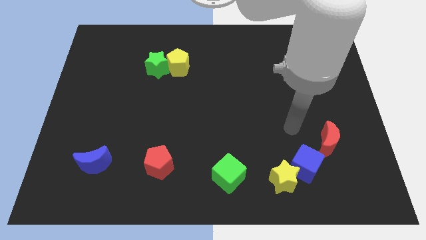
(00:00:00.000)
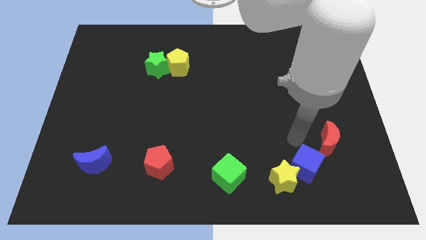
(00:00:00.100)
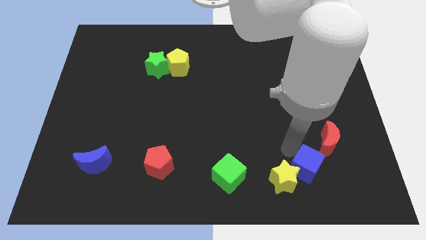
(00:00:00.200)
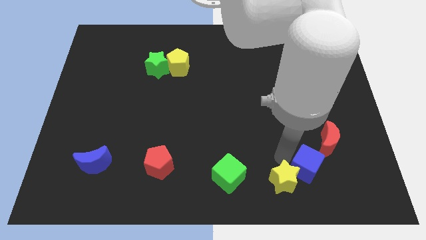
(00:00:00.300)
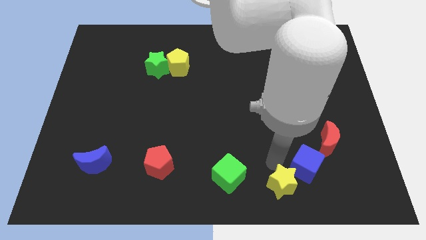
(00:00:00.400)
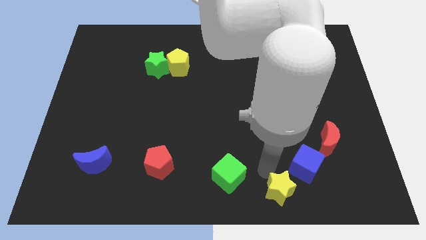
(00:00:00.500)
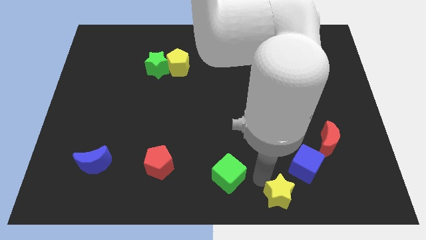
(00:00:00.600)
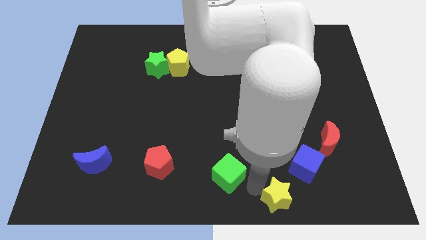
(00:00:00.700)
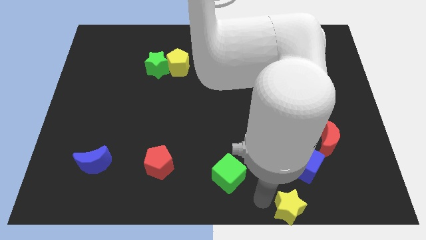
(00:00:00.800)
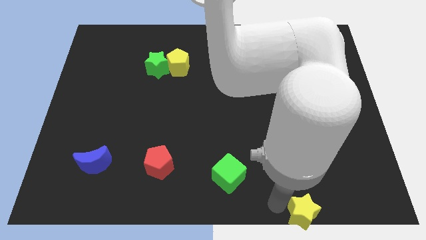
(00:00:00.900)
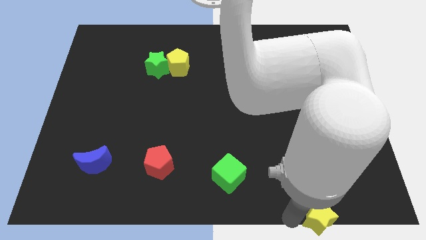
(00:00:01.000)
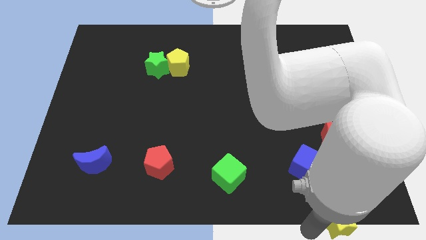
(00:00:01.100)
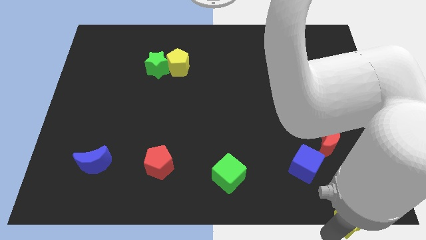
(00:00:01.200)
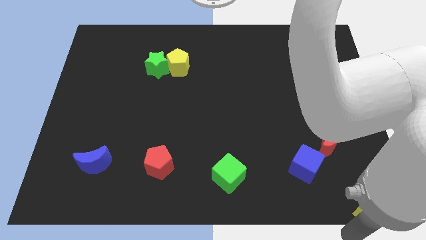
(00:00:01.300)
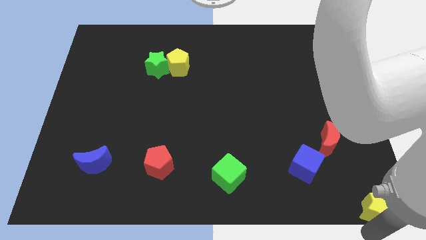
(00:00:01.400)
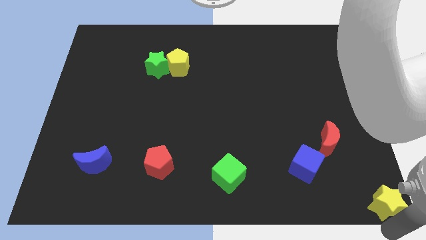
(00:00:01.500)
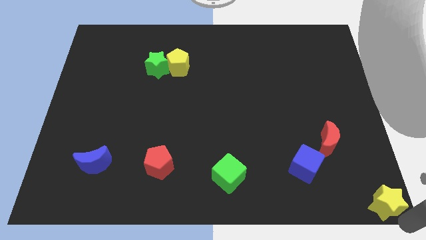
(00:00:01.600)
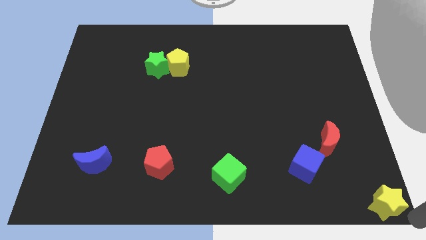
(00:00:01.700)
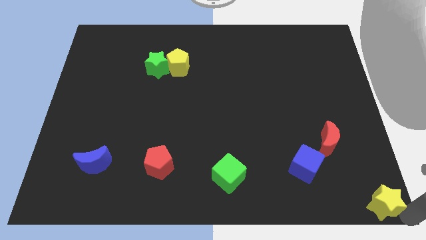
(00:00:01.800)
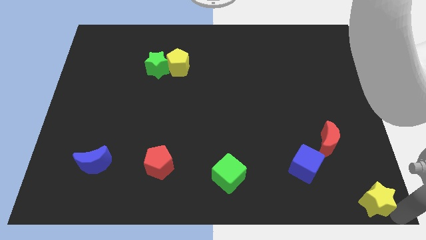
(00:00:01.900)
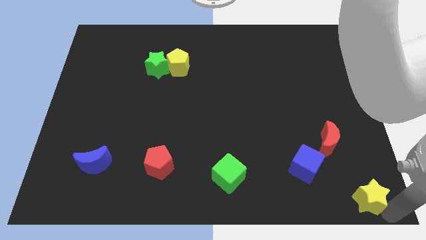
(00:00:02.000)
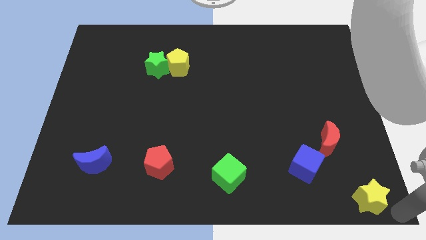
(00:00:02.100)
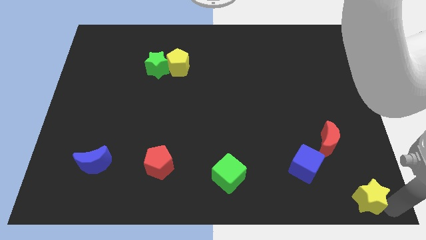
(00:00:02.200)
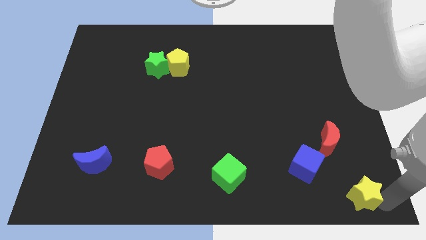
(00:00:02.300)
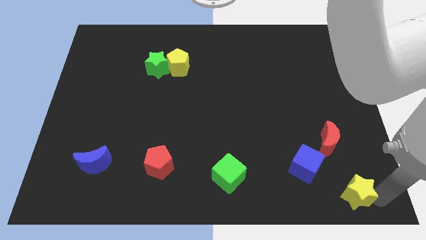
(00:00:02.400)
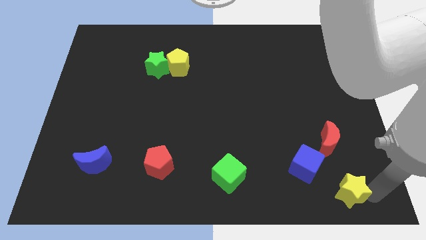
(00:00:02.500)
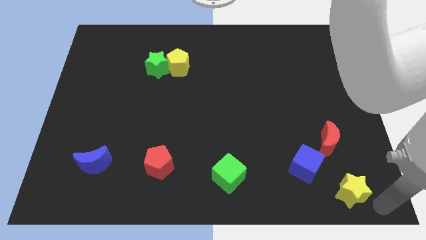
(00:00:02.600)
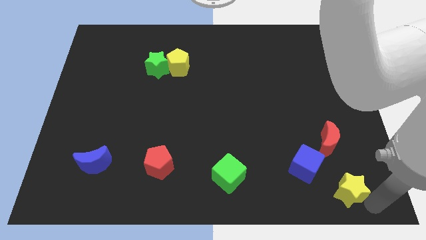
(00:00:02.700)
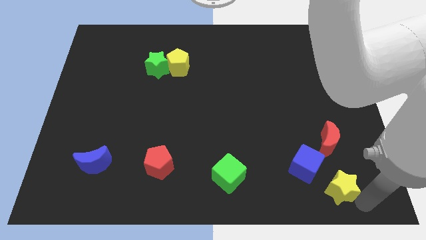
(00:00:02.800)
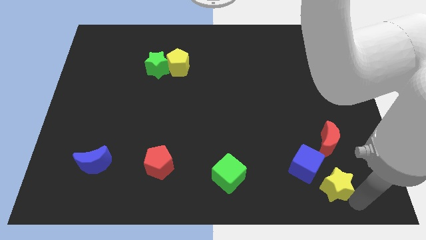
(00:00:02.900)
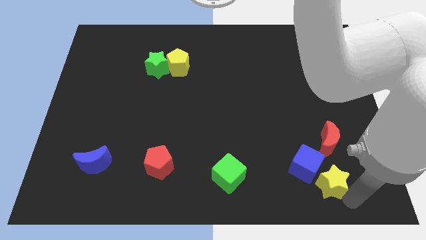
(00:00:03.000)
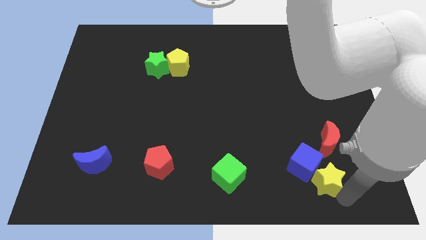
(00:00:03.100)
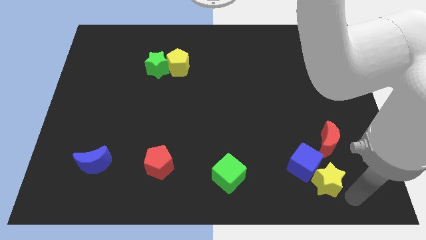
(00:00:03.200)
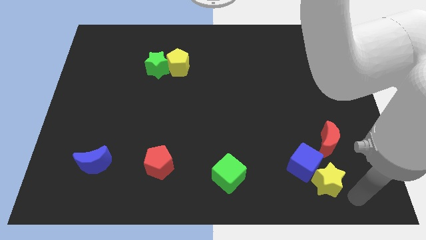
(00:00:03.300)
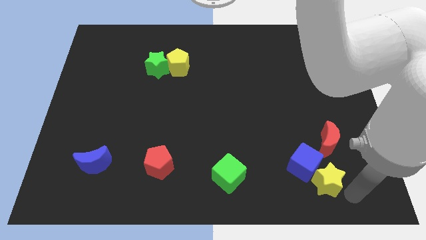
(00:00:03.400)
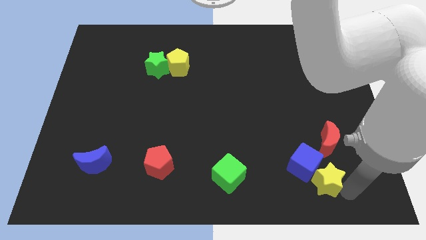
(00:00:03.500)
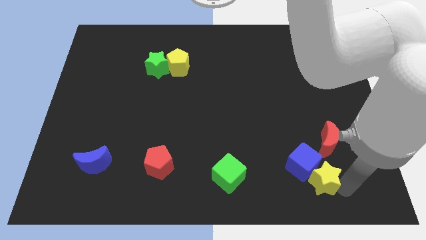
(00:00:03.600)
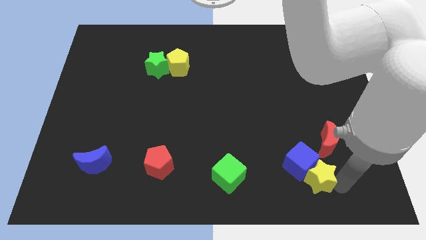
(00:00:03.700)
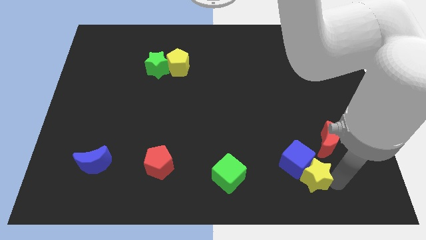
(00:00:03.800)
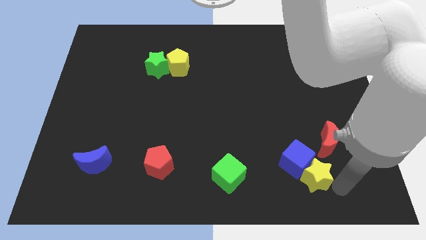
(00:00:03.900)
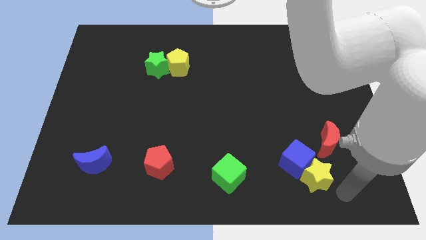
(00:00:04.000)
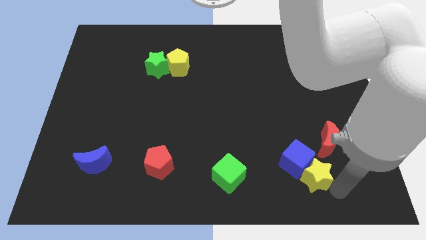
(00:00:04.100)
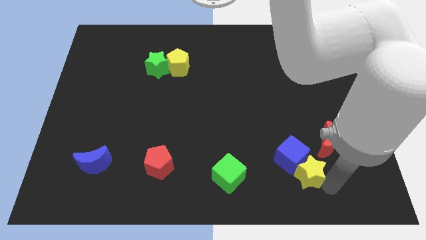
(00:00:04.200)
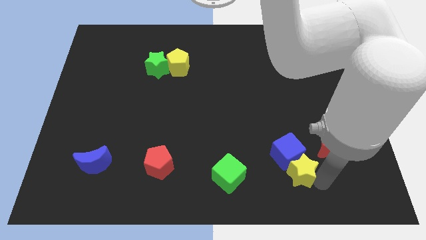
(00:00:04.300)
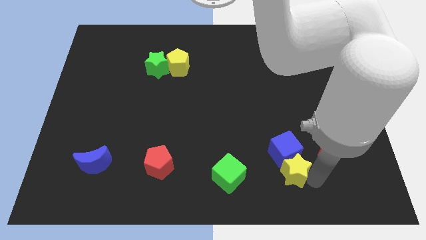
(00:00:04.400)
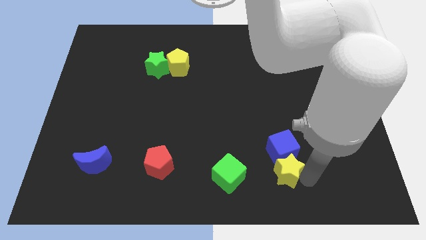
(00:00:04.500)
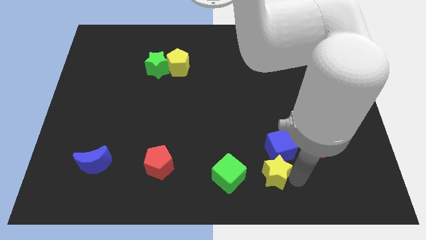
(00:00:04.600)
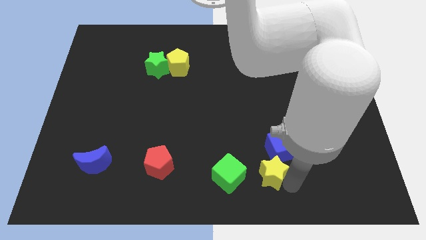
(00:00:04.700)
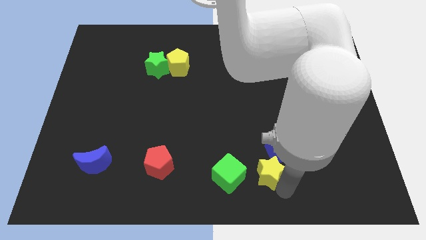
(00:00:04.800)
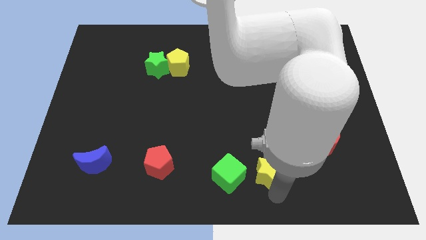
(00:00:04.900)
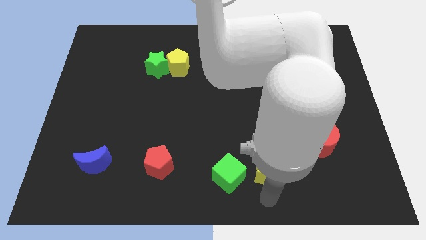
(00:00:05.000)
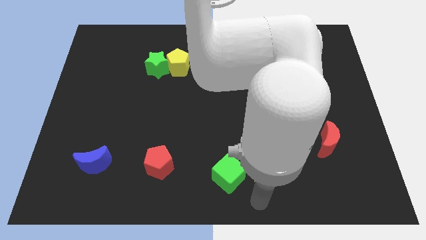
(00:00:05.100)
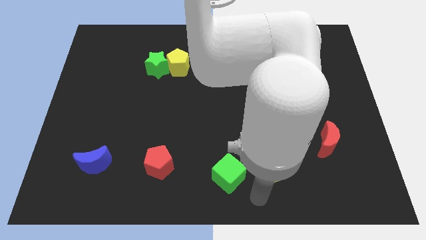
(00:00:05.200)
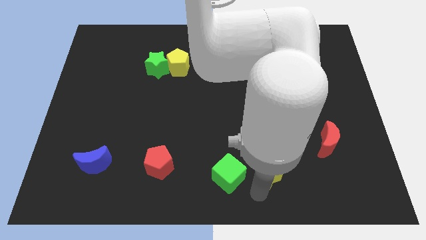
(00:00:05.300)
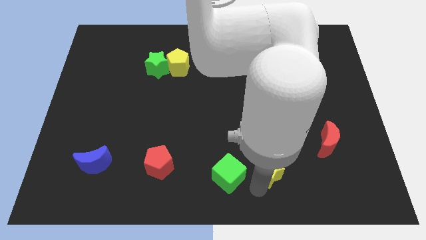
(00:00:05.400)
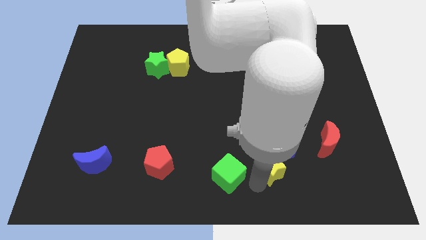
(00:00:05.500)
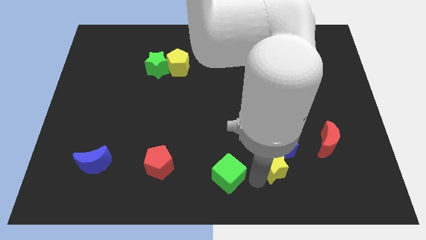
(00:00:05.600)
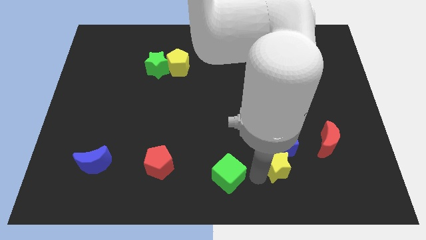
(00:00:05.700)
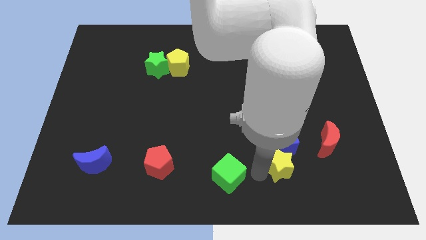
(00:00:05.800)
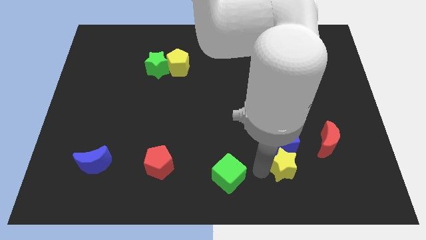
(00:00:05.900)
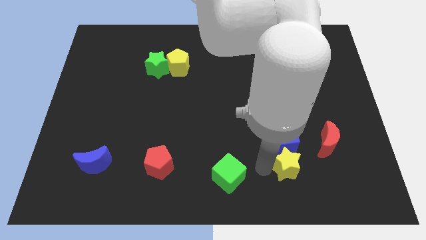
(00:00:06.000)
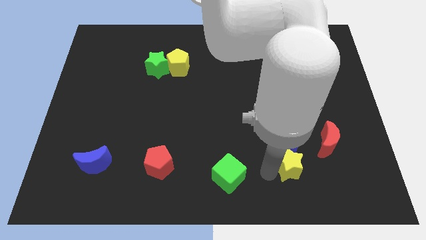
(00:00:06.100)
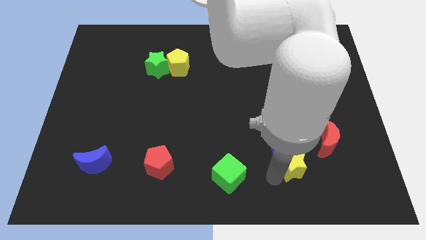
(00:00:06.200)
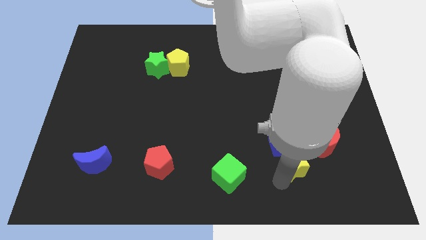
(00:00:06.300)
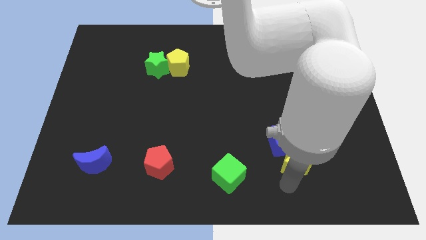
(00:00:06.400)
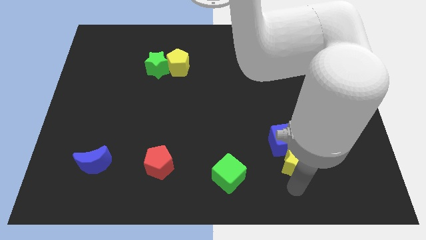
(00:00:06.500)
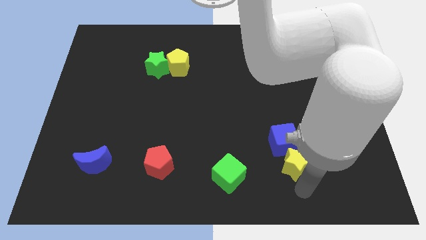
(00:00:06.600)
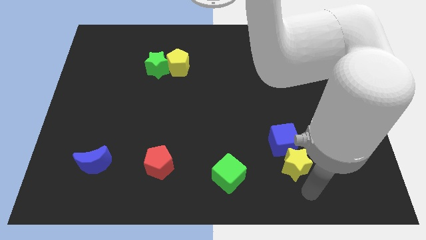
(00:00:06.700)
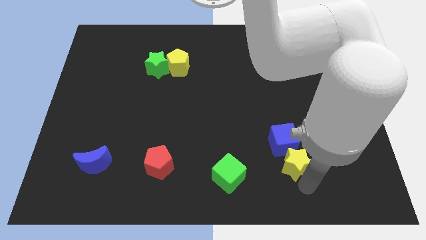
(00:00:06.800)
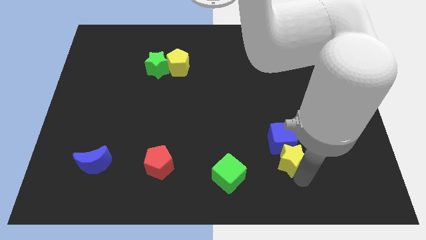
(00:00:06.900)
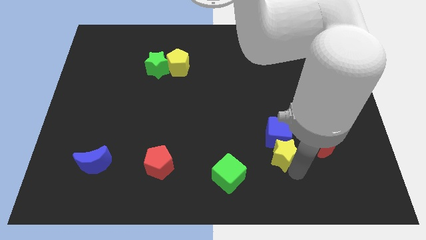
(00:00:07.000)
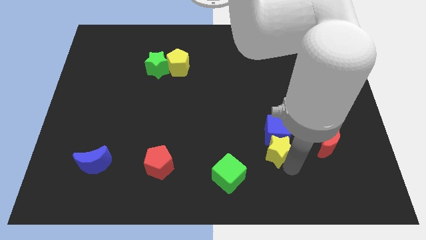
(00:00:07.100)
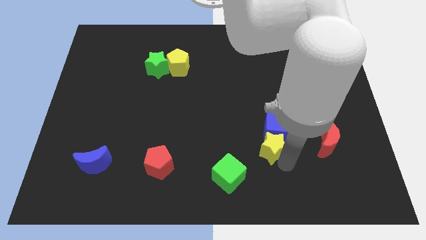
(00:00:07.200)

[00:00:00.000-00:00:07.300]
push the yellow star a little bit up

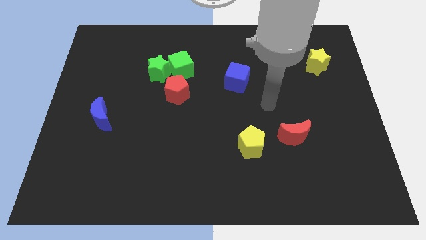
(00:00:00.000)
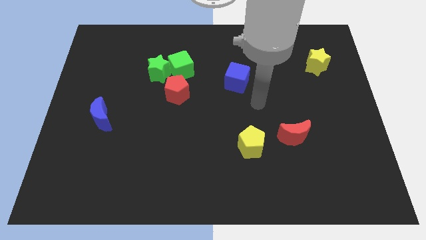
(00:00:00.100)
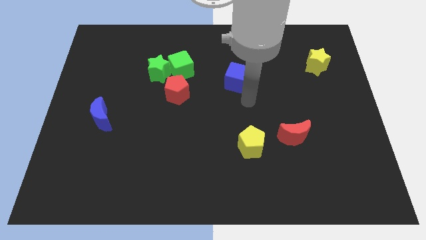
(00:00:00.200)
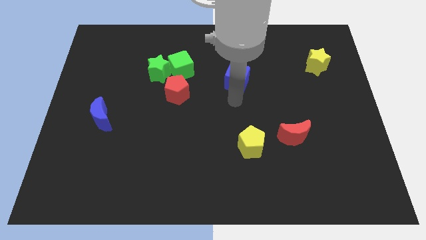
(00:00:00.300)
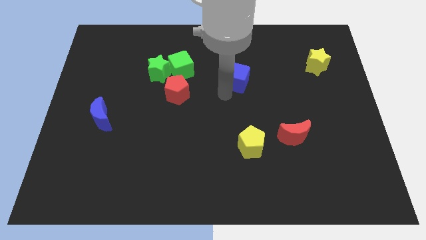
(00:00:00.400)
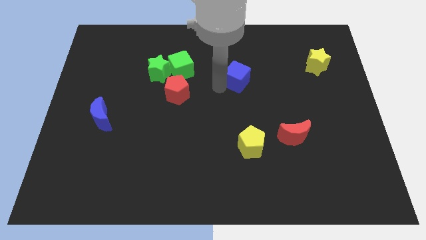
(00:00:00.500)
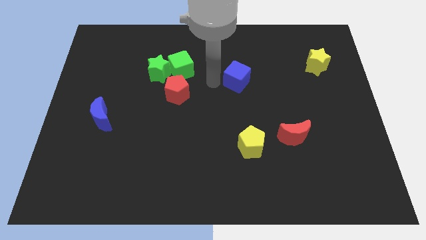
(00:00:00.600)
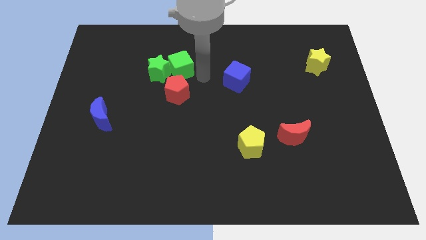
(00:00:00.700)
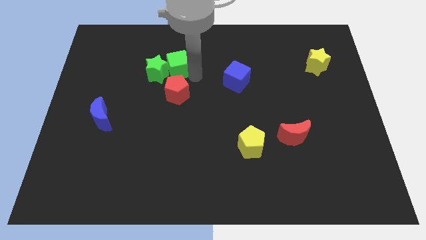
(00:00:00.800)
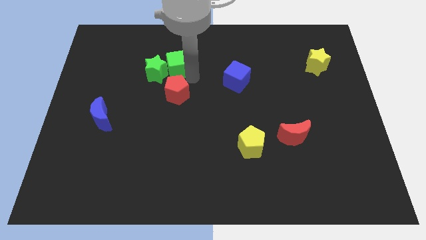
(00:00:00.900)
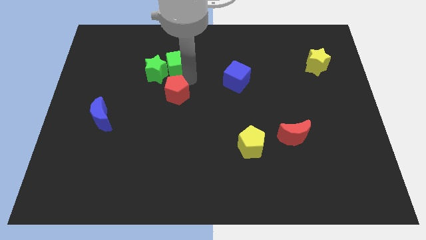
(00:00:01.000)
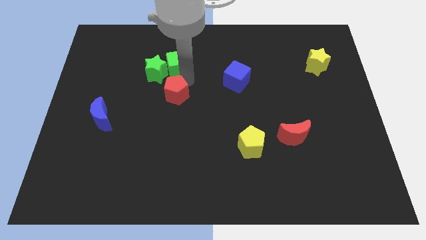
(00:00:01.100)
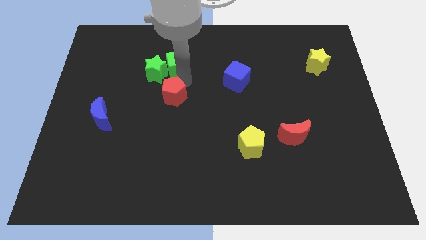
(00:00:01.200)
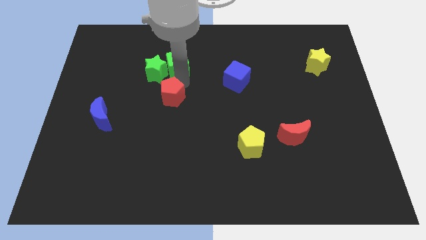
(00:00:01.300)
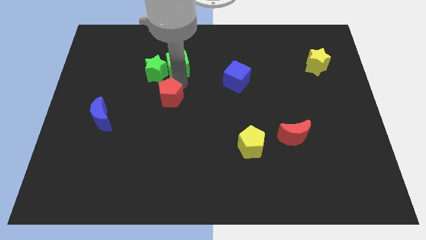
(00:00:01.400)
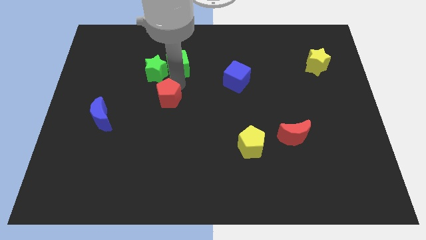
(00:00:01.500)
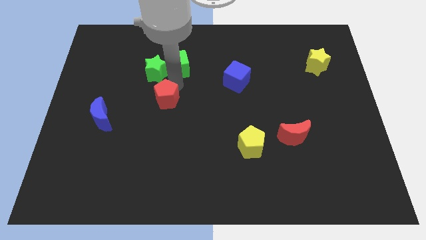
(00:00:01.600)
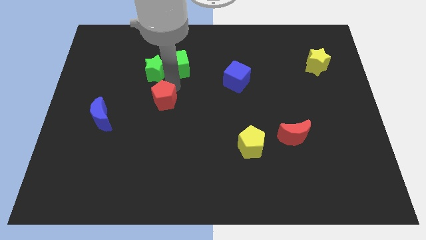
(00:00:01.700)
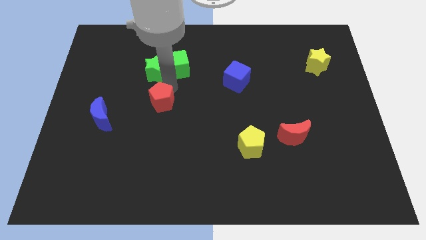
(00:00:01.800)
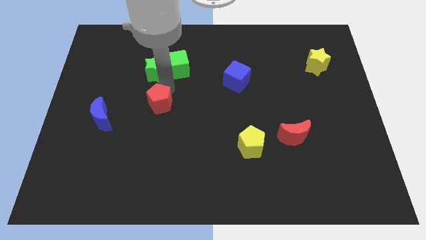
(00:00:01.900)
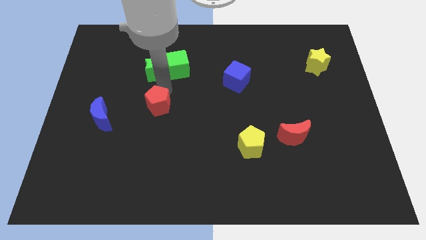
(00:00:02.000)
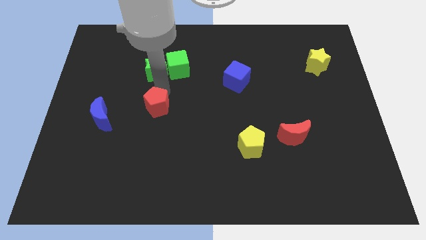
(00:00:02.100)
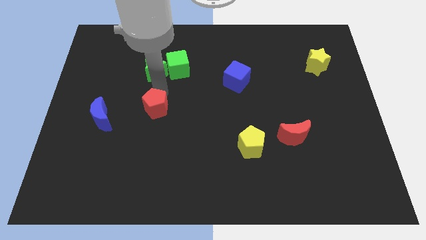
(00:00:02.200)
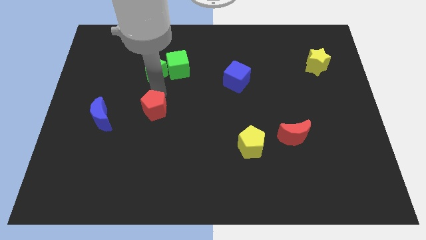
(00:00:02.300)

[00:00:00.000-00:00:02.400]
move the red pentagon a bit downwards and left diagonally
